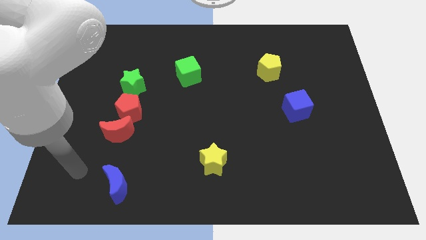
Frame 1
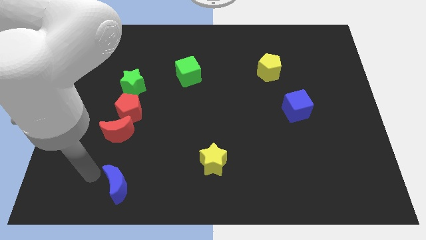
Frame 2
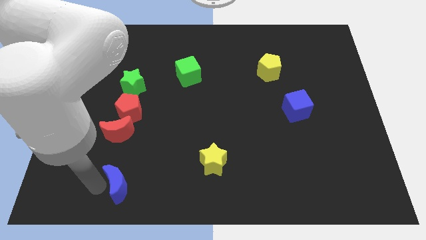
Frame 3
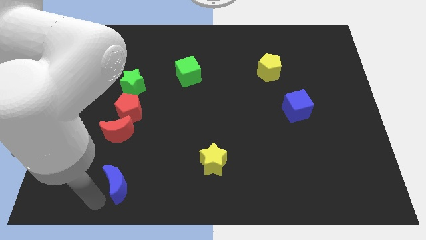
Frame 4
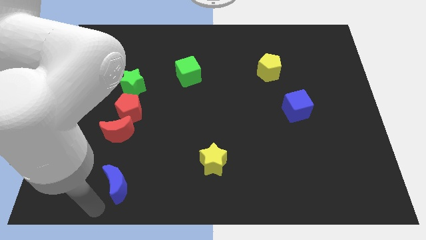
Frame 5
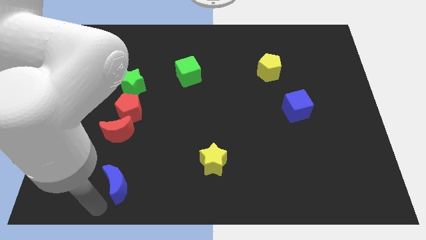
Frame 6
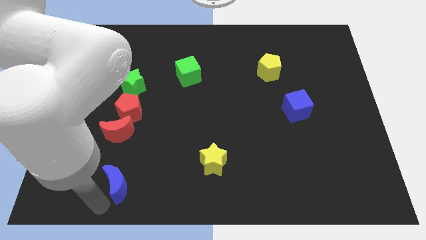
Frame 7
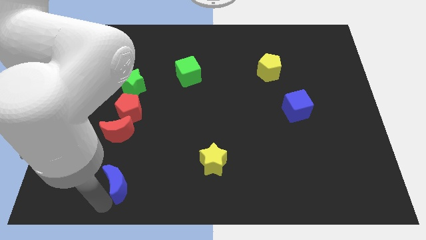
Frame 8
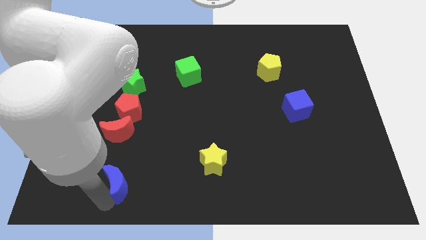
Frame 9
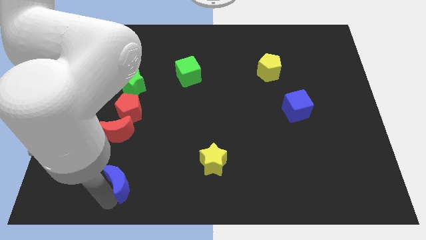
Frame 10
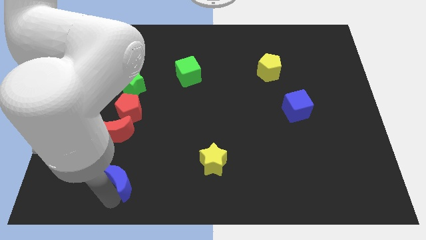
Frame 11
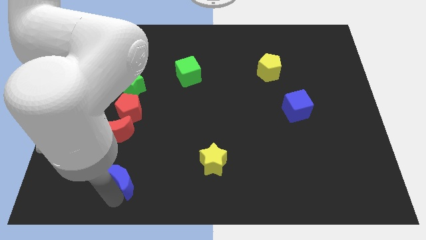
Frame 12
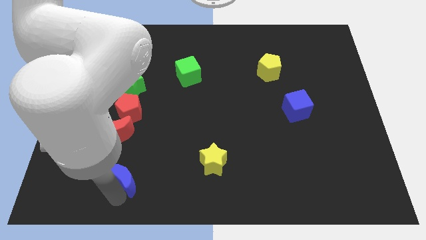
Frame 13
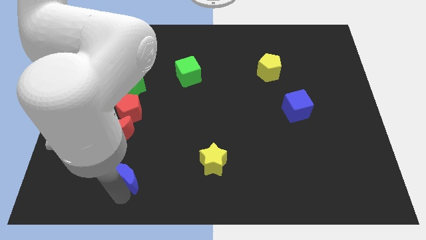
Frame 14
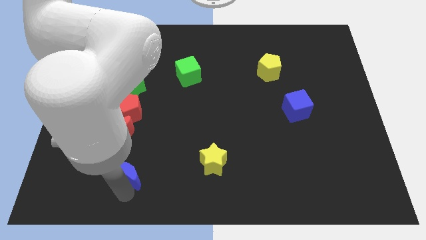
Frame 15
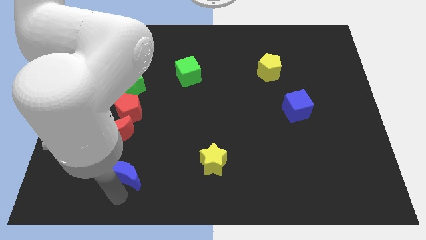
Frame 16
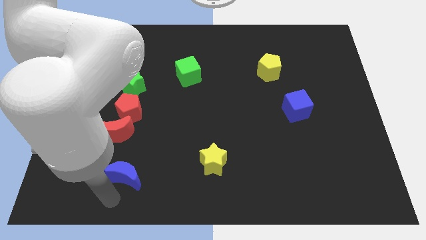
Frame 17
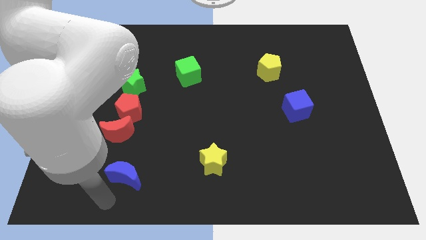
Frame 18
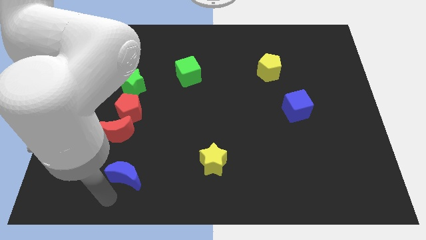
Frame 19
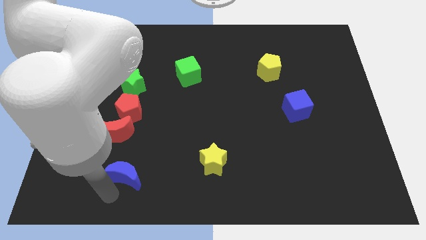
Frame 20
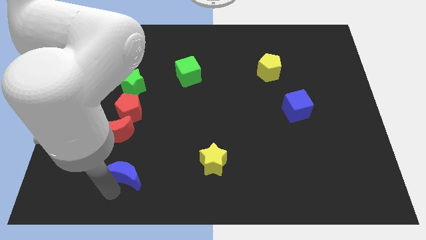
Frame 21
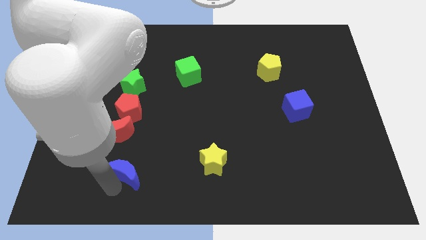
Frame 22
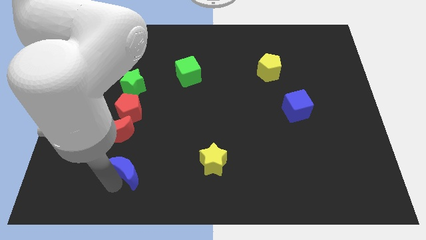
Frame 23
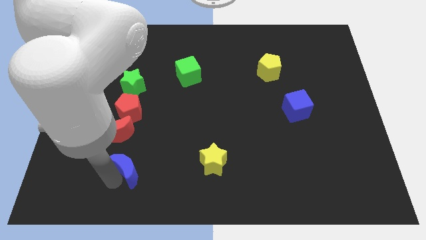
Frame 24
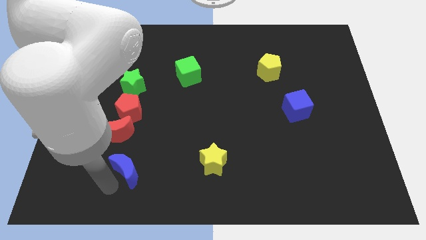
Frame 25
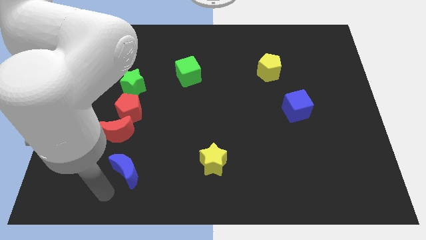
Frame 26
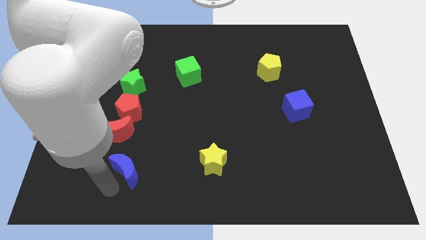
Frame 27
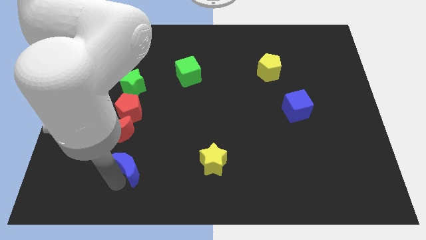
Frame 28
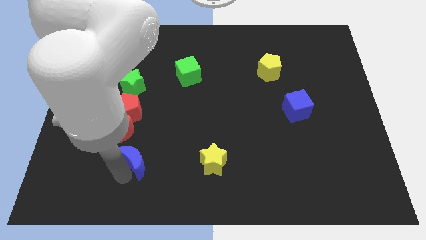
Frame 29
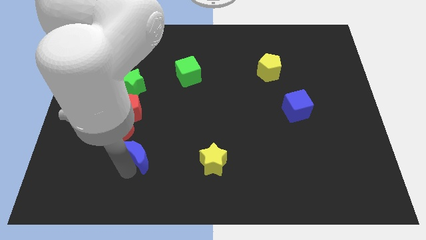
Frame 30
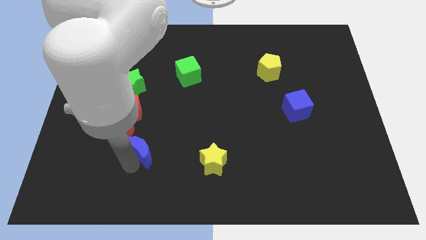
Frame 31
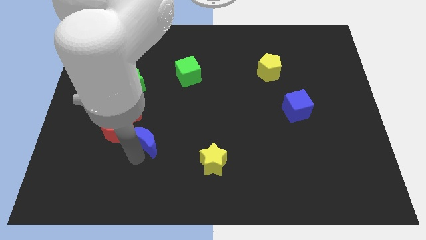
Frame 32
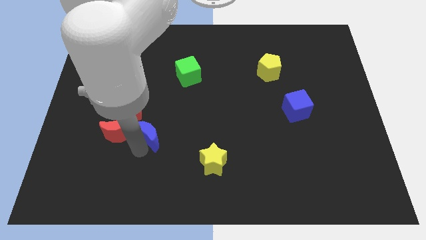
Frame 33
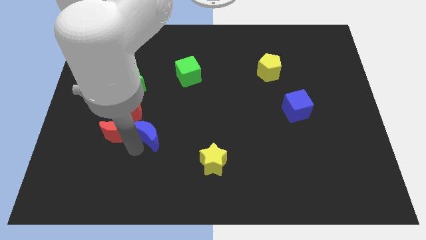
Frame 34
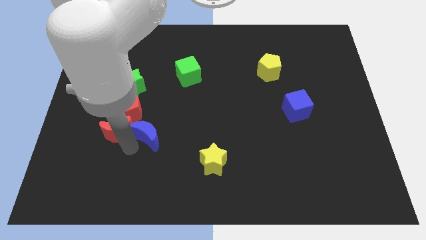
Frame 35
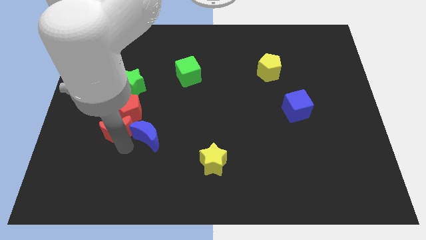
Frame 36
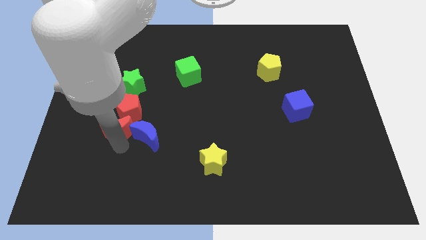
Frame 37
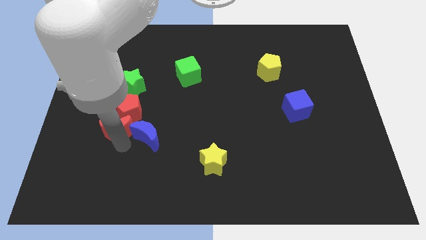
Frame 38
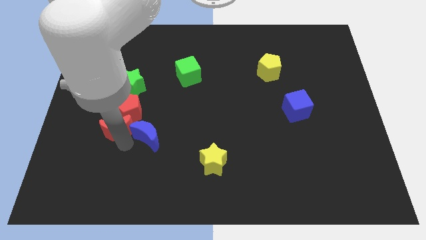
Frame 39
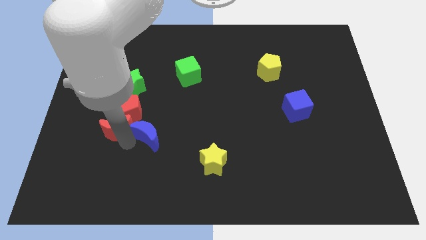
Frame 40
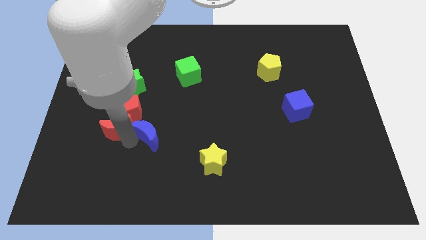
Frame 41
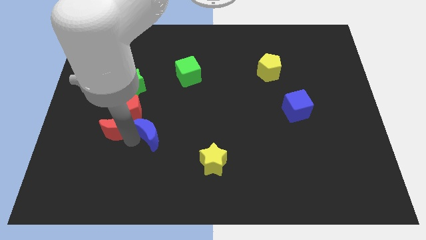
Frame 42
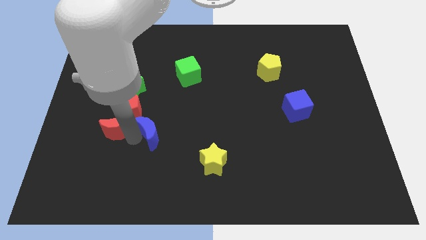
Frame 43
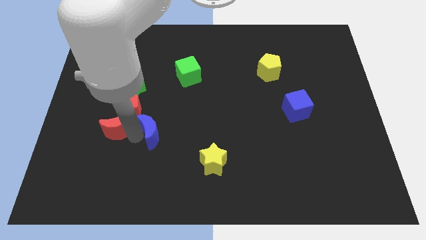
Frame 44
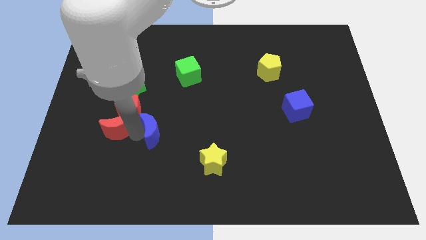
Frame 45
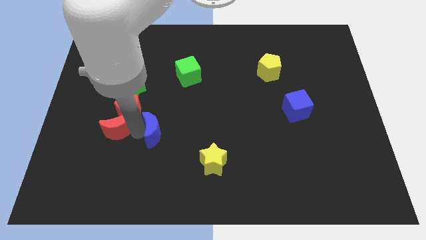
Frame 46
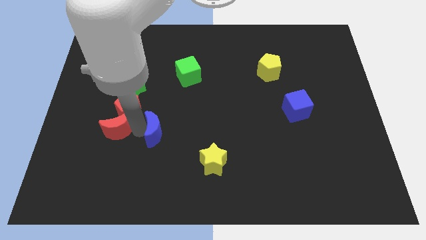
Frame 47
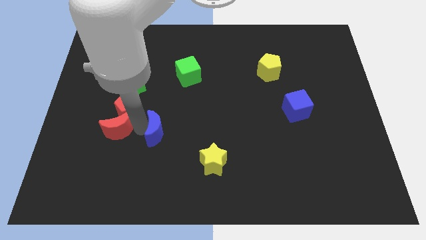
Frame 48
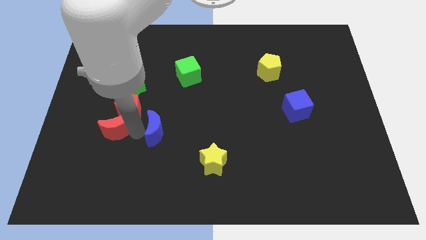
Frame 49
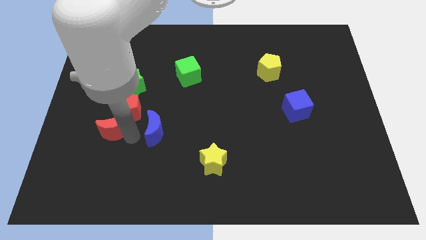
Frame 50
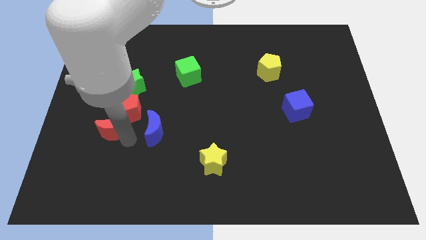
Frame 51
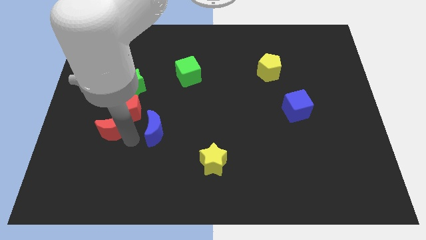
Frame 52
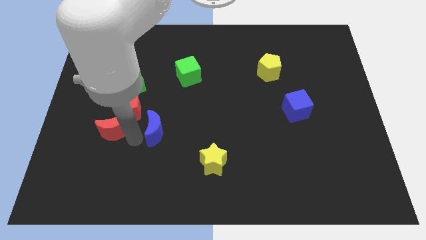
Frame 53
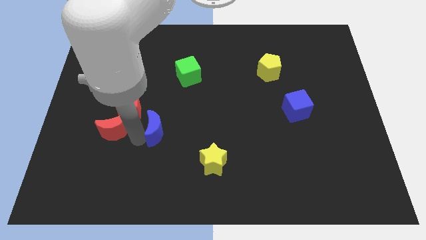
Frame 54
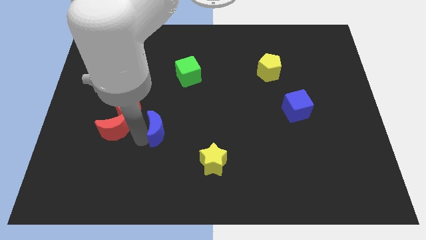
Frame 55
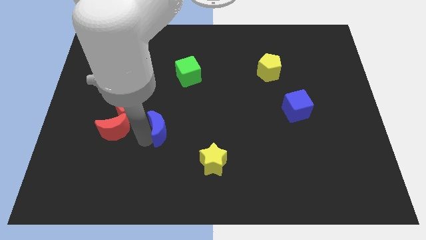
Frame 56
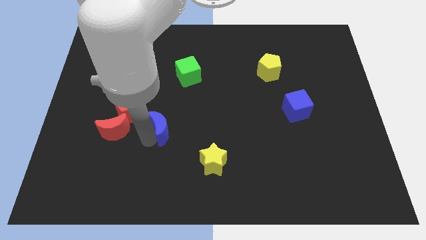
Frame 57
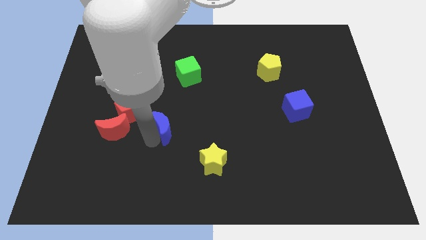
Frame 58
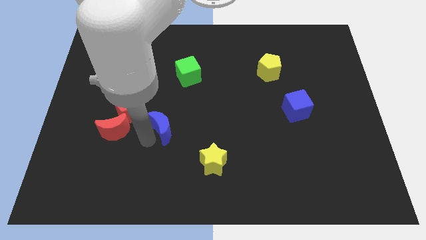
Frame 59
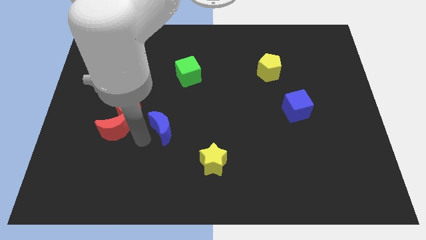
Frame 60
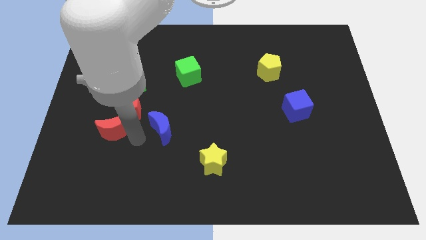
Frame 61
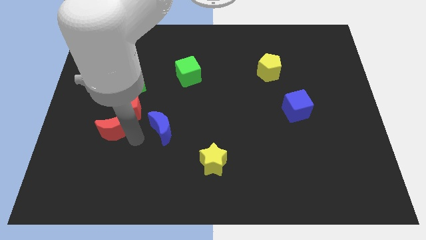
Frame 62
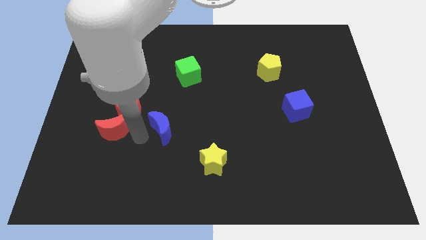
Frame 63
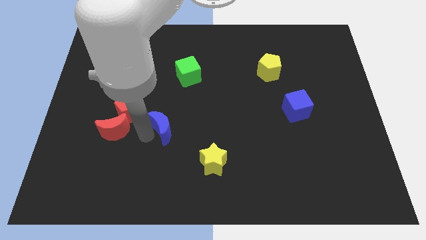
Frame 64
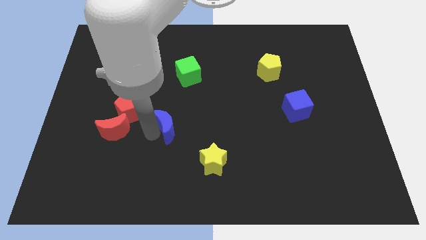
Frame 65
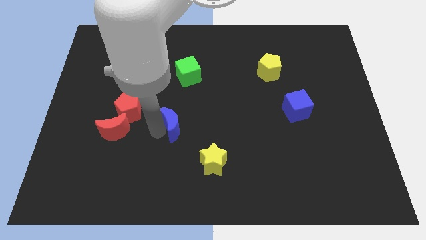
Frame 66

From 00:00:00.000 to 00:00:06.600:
put the blue moon to the middle of the board
